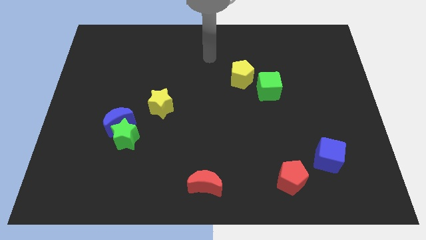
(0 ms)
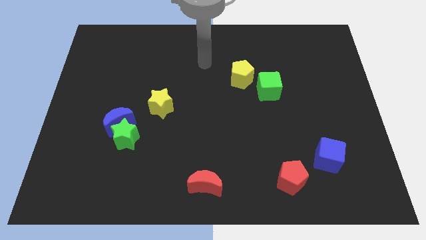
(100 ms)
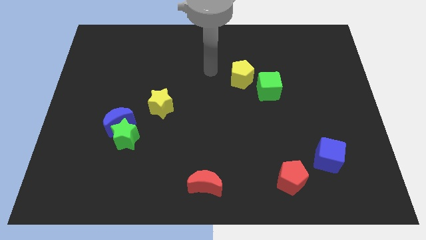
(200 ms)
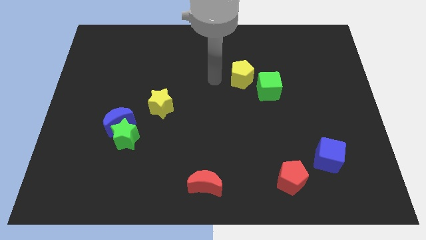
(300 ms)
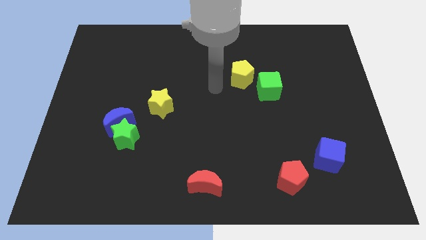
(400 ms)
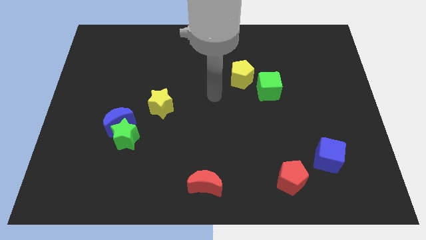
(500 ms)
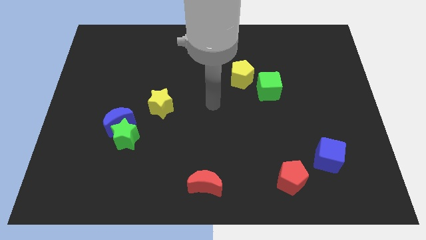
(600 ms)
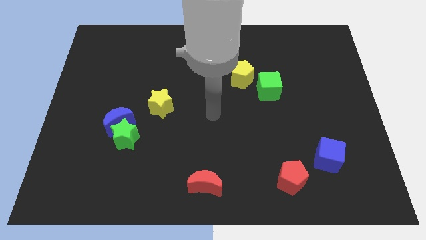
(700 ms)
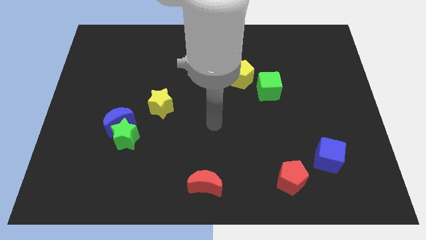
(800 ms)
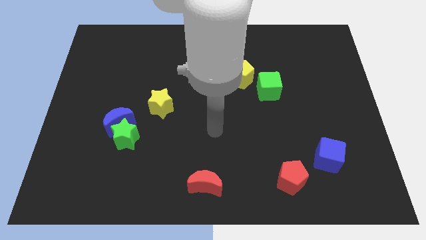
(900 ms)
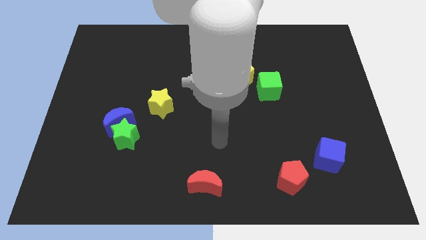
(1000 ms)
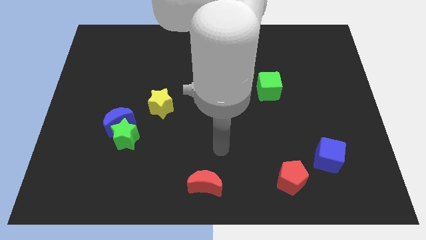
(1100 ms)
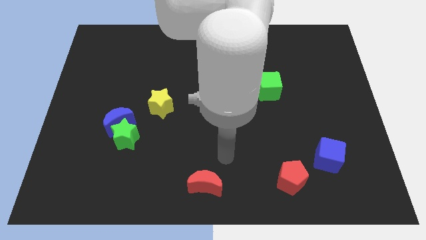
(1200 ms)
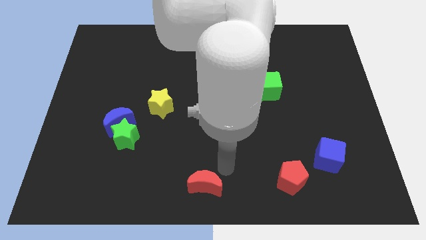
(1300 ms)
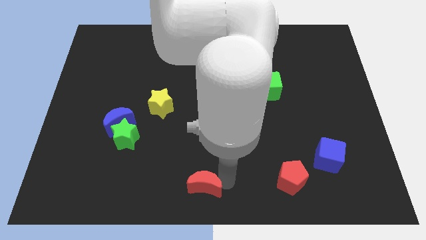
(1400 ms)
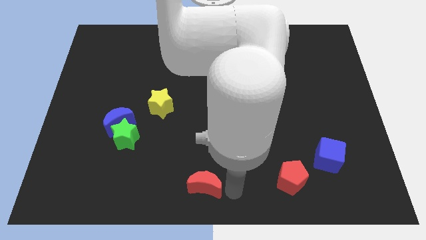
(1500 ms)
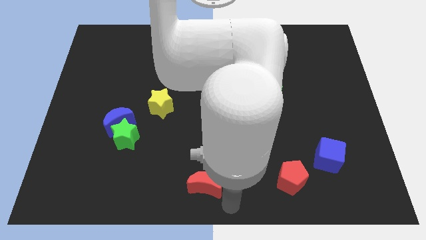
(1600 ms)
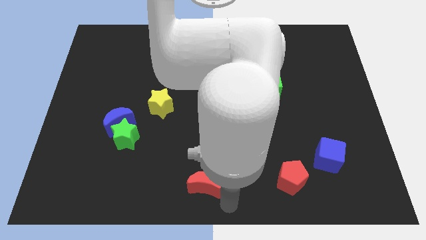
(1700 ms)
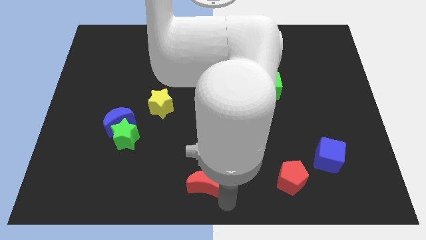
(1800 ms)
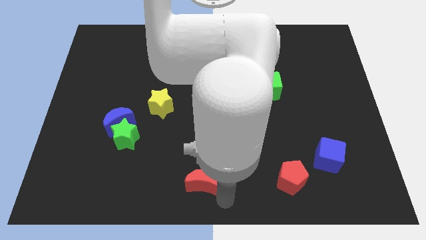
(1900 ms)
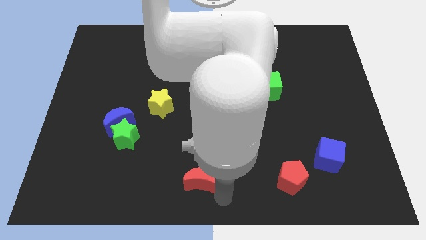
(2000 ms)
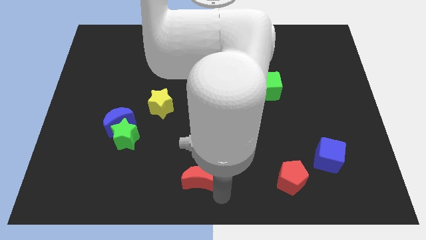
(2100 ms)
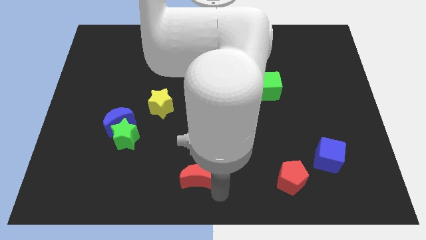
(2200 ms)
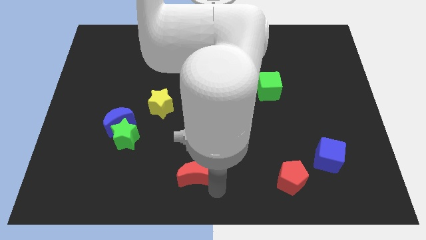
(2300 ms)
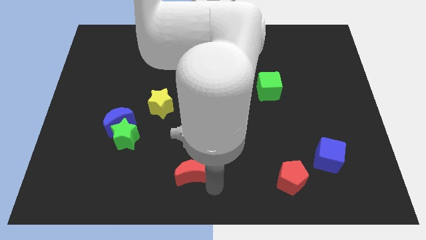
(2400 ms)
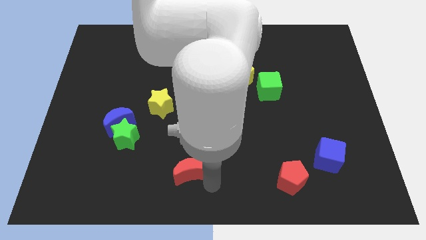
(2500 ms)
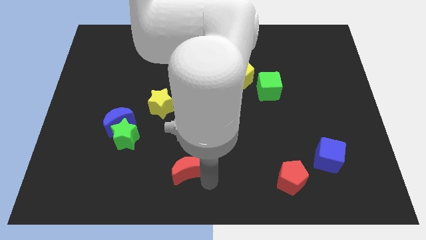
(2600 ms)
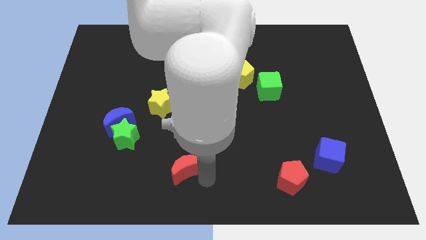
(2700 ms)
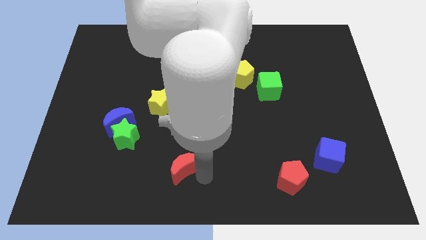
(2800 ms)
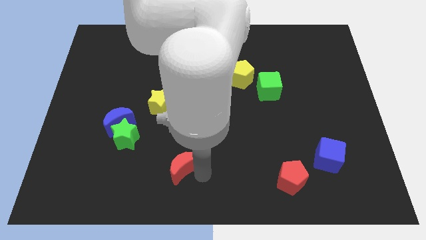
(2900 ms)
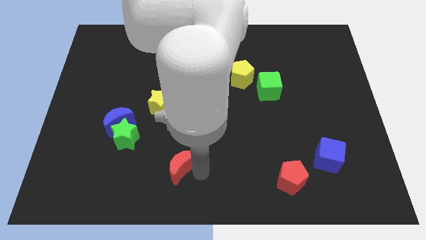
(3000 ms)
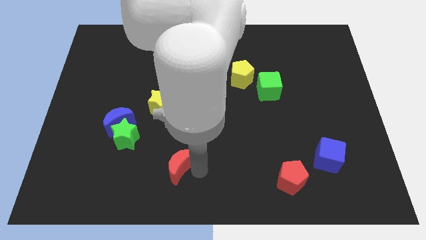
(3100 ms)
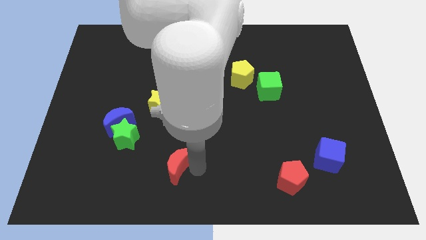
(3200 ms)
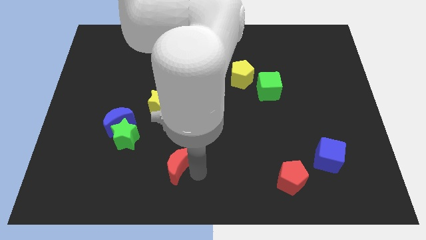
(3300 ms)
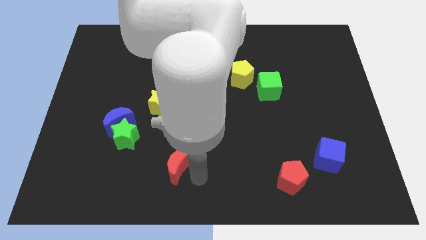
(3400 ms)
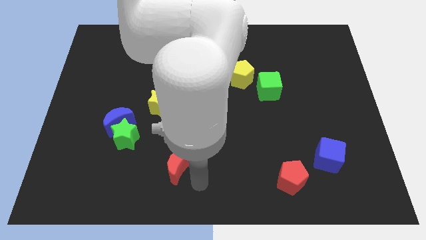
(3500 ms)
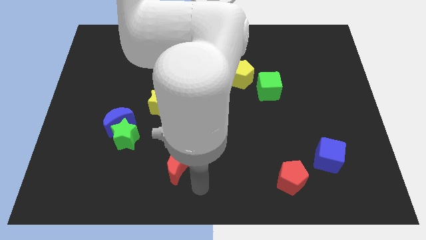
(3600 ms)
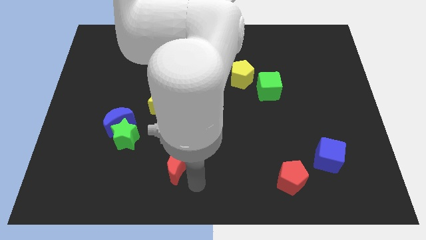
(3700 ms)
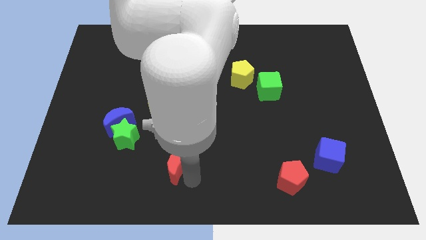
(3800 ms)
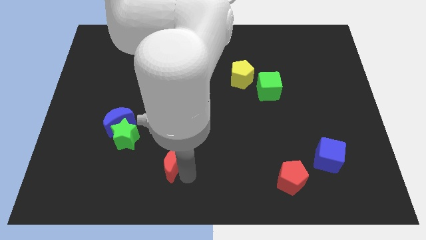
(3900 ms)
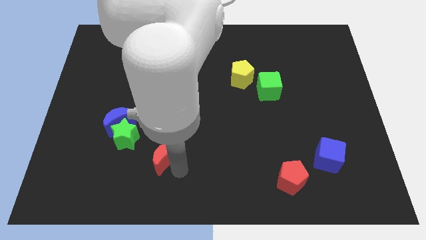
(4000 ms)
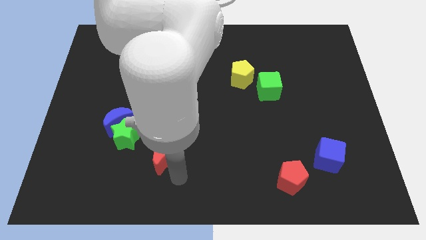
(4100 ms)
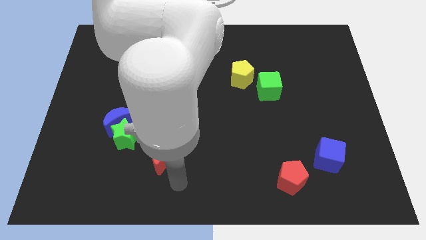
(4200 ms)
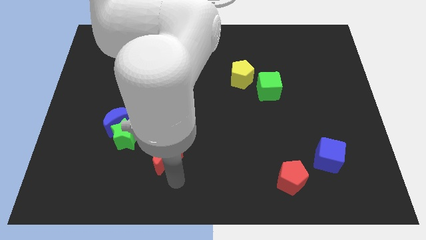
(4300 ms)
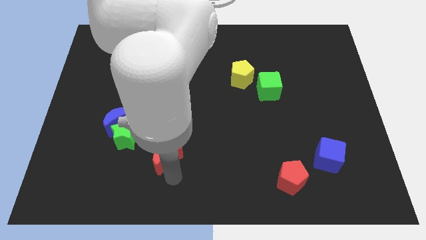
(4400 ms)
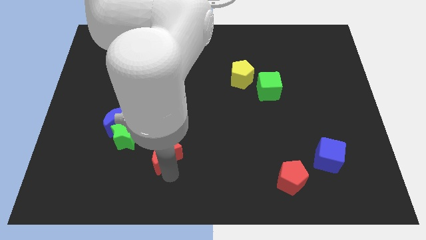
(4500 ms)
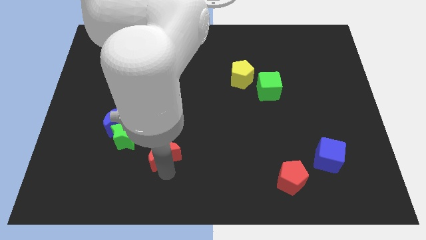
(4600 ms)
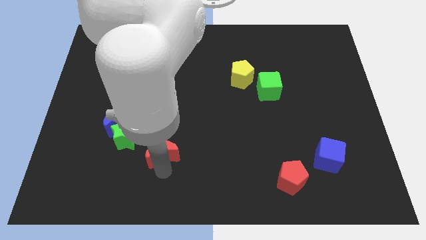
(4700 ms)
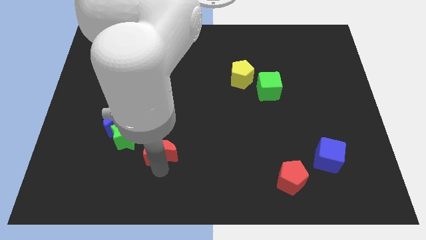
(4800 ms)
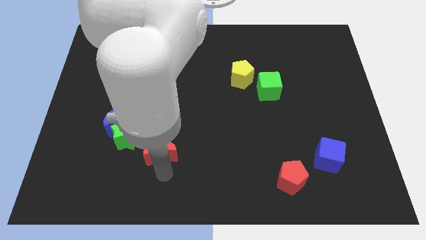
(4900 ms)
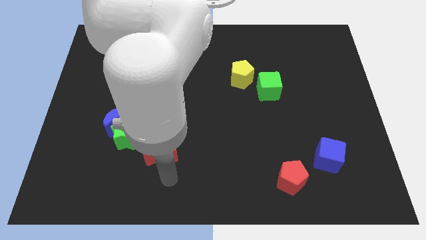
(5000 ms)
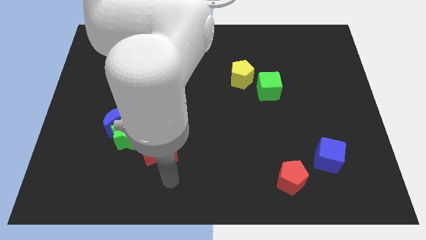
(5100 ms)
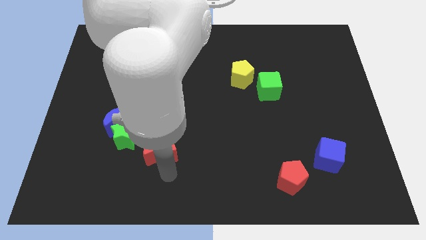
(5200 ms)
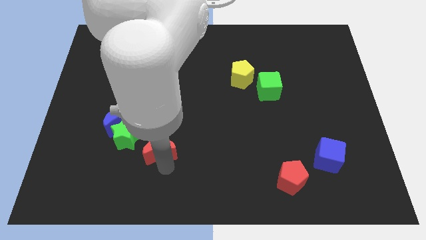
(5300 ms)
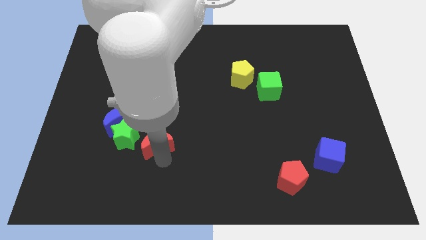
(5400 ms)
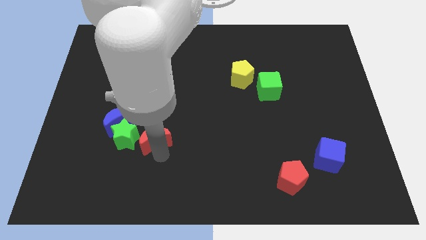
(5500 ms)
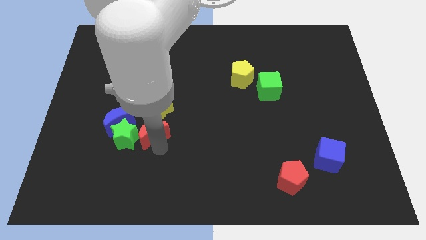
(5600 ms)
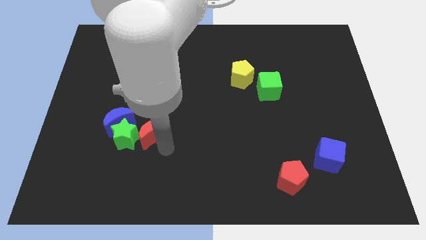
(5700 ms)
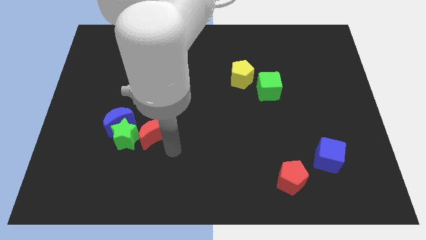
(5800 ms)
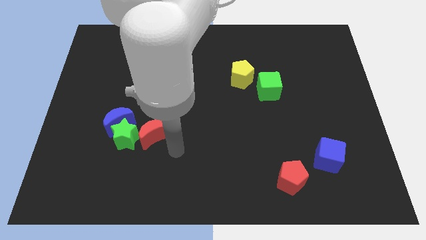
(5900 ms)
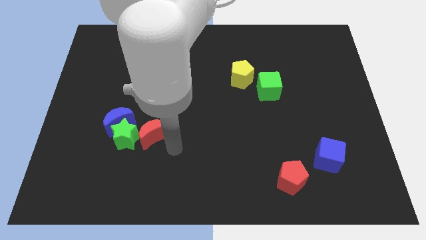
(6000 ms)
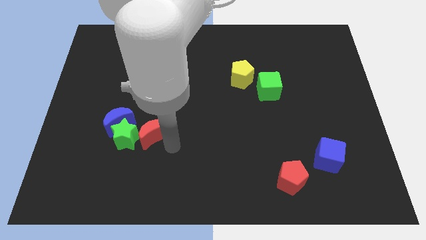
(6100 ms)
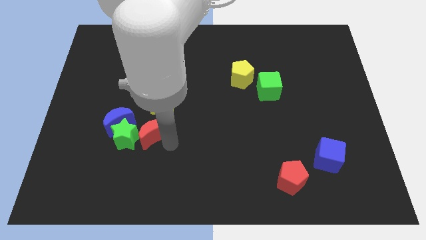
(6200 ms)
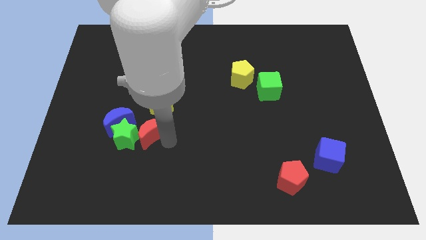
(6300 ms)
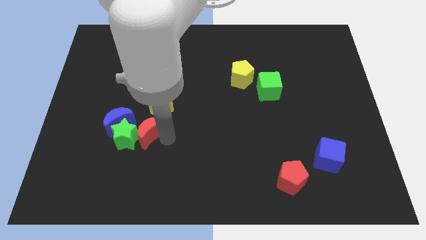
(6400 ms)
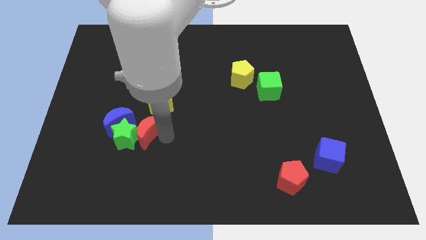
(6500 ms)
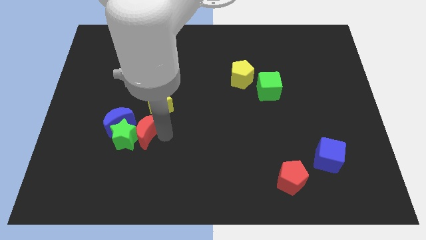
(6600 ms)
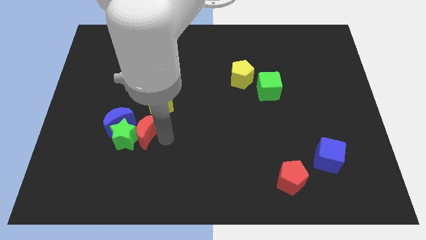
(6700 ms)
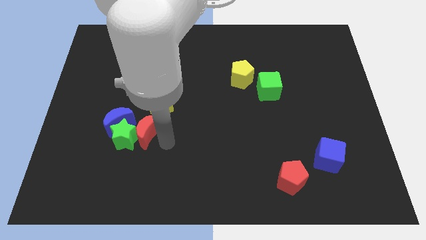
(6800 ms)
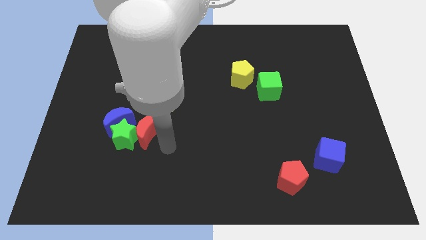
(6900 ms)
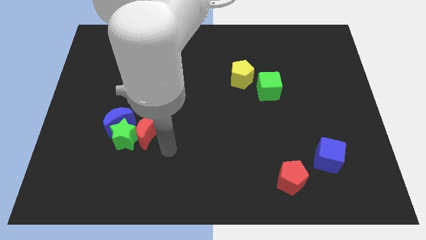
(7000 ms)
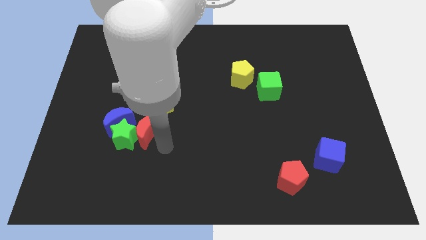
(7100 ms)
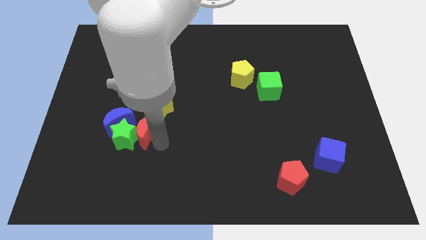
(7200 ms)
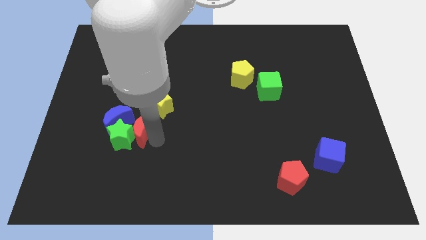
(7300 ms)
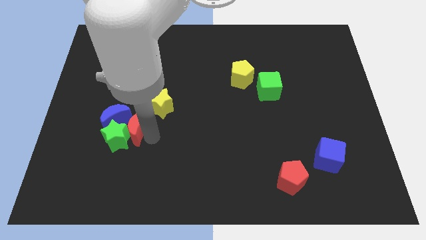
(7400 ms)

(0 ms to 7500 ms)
slide the red moon towards the blue moon
